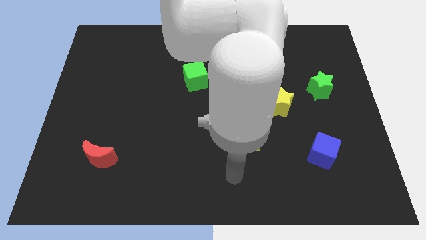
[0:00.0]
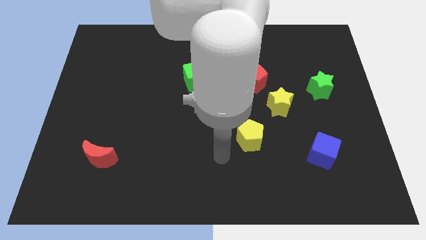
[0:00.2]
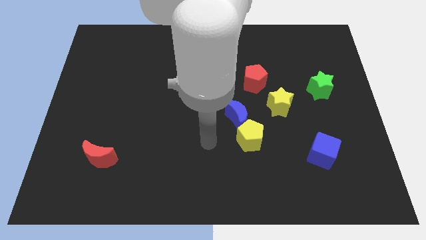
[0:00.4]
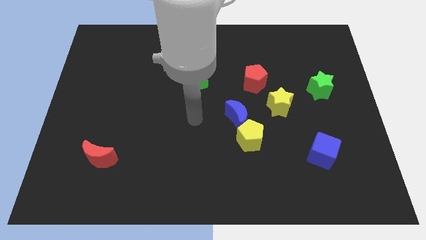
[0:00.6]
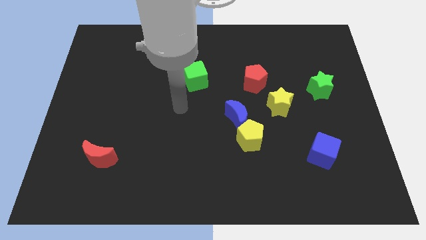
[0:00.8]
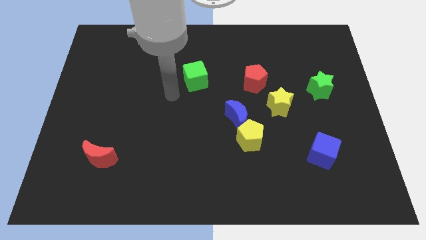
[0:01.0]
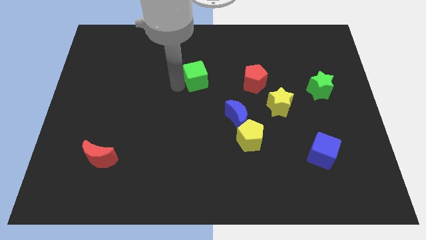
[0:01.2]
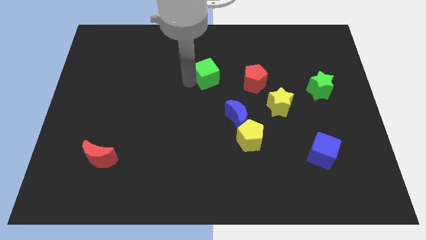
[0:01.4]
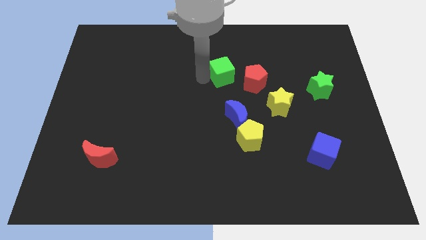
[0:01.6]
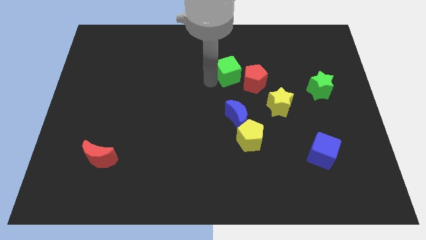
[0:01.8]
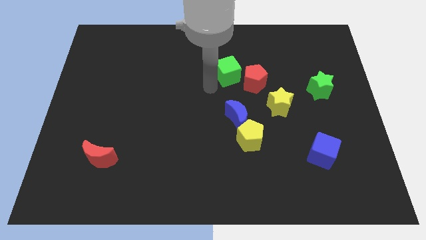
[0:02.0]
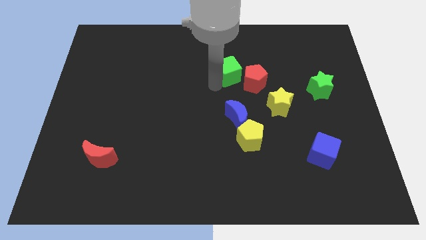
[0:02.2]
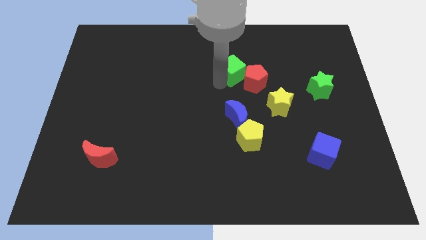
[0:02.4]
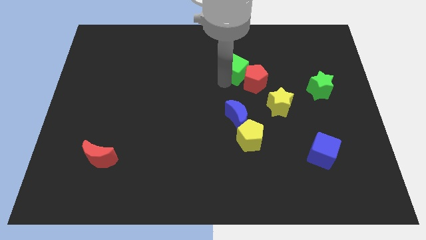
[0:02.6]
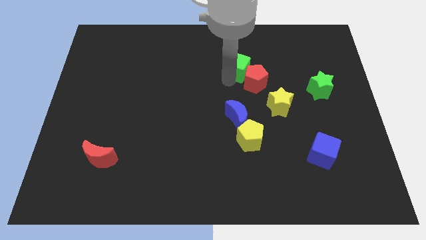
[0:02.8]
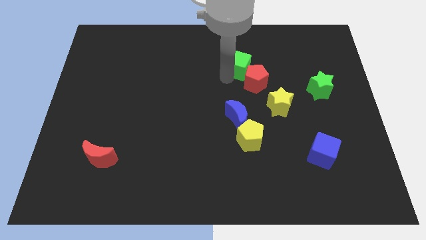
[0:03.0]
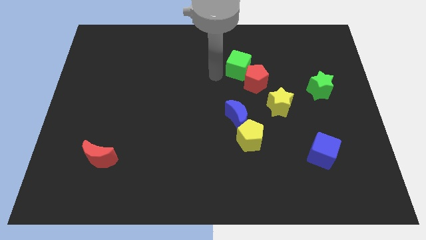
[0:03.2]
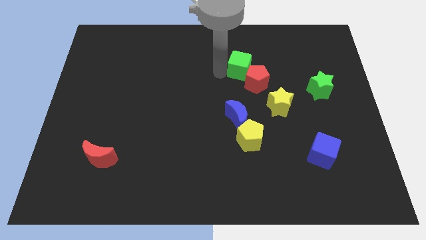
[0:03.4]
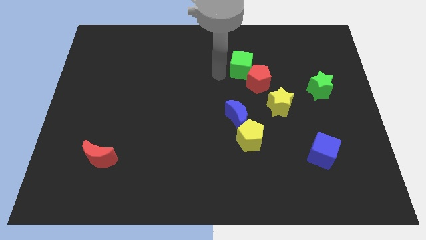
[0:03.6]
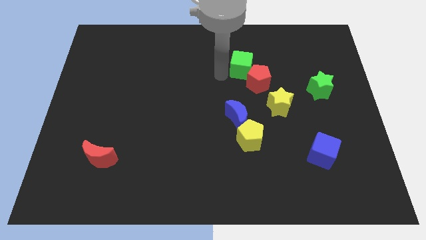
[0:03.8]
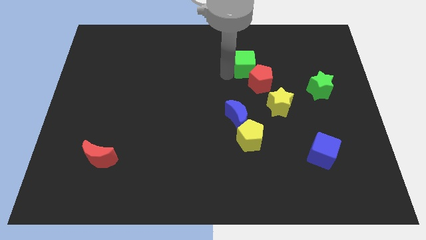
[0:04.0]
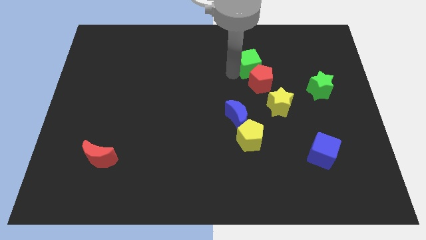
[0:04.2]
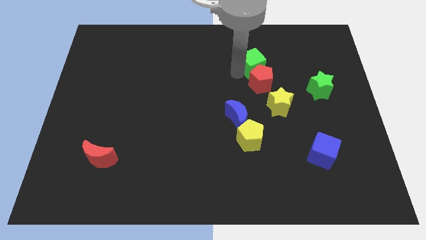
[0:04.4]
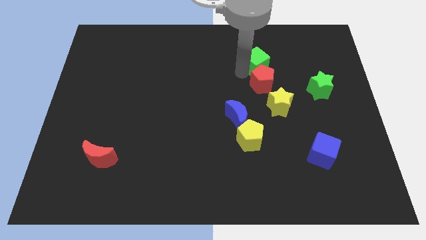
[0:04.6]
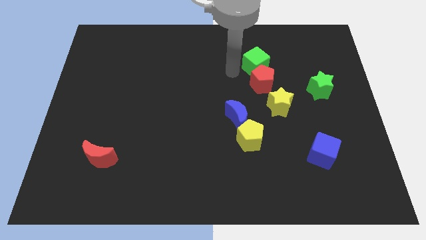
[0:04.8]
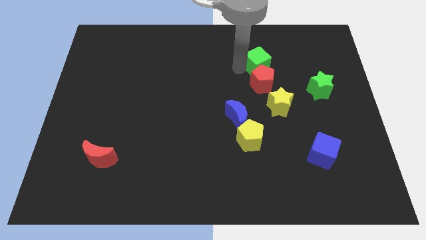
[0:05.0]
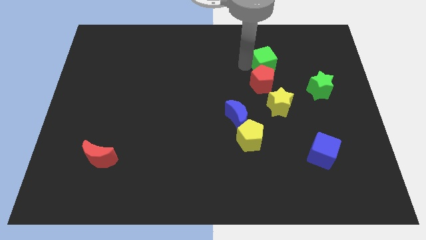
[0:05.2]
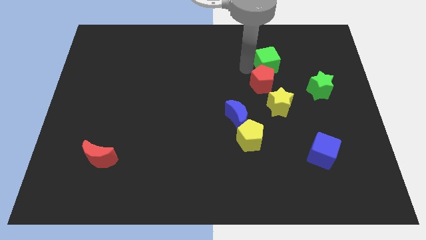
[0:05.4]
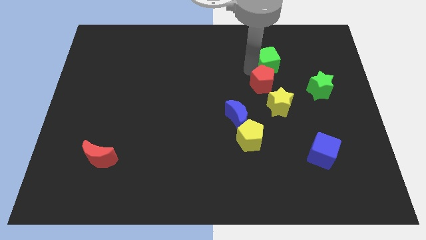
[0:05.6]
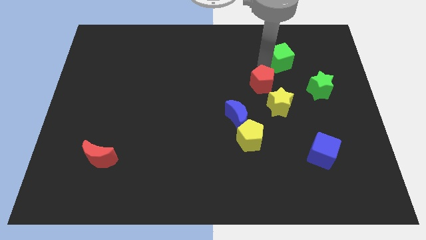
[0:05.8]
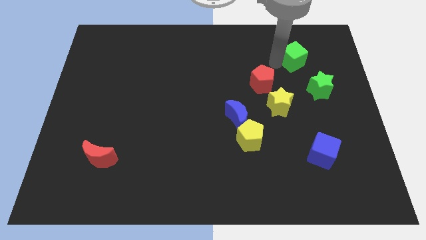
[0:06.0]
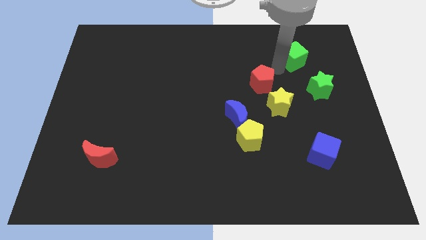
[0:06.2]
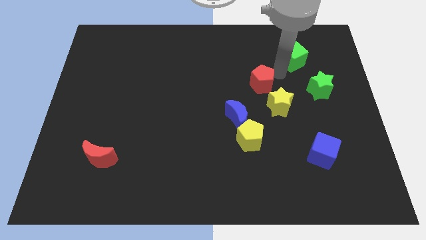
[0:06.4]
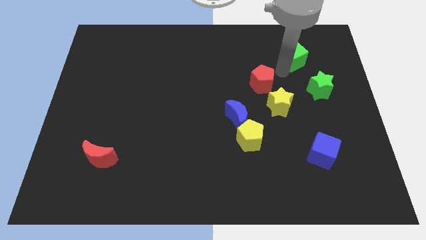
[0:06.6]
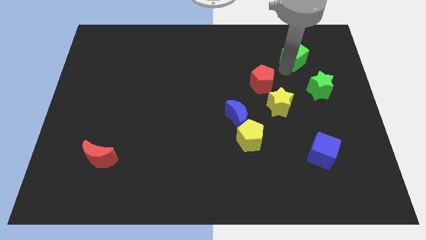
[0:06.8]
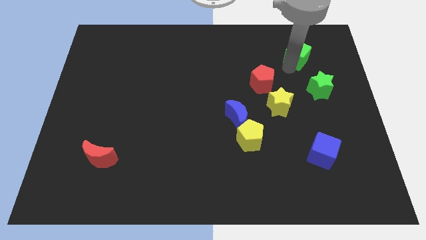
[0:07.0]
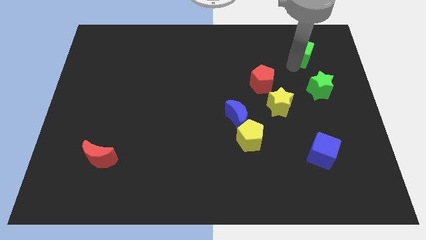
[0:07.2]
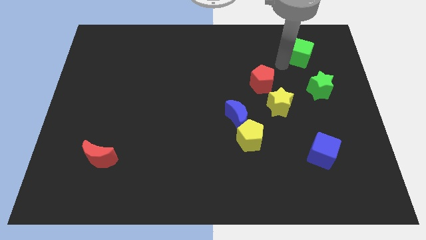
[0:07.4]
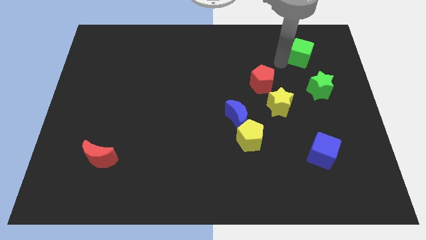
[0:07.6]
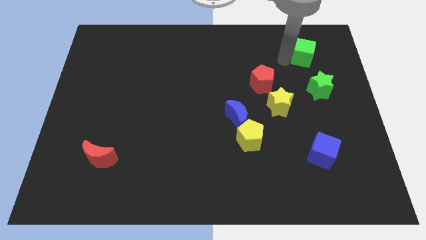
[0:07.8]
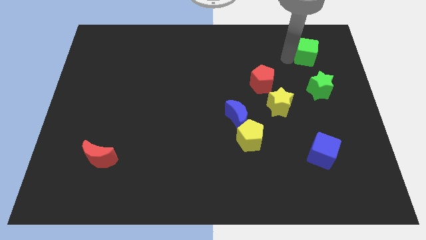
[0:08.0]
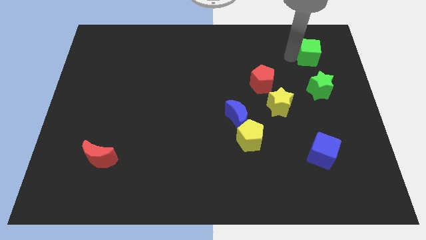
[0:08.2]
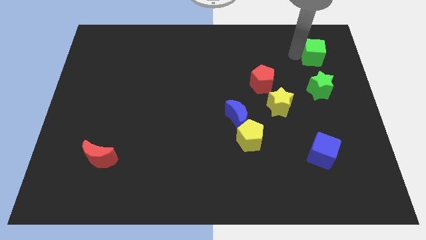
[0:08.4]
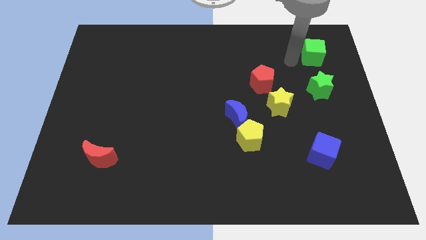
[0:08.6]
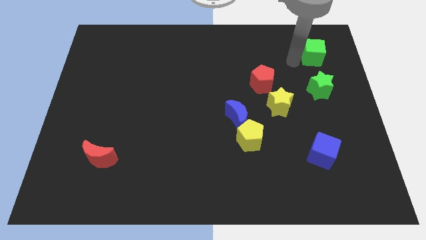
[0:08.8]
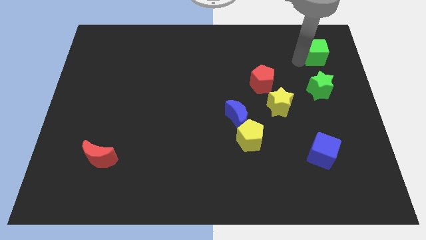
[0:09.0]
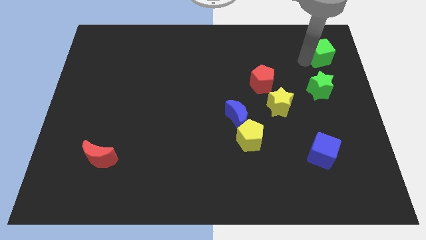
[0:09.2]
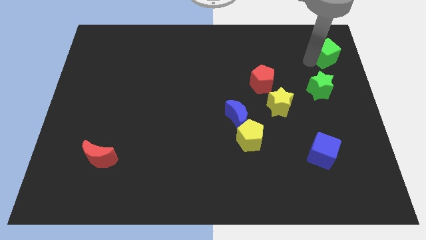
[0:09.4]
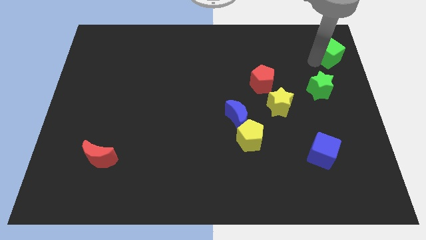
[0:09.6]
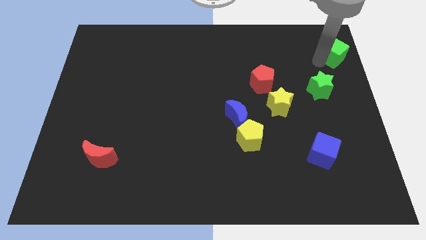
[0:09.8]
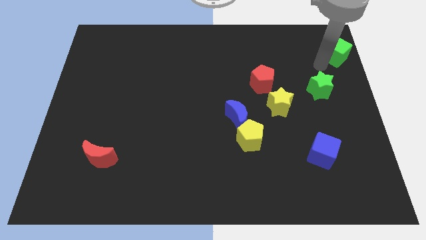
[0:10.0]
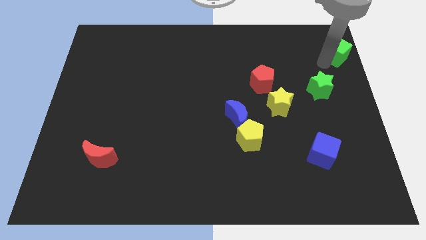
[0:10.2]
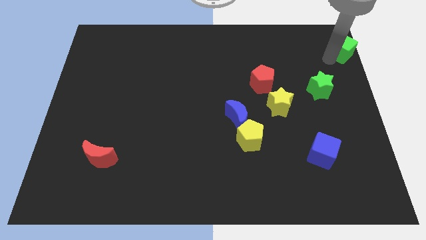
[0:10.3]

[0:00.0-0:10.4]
push the green cube to the top right of the board

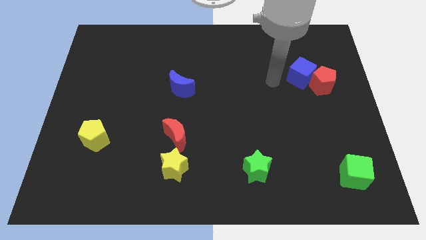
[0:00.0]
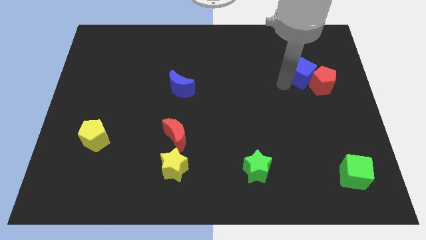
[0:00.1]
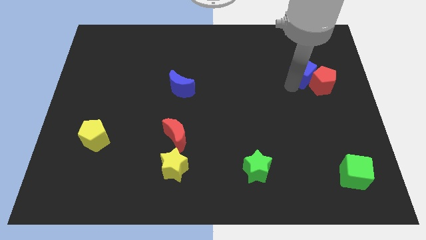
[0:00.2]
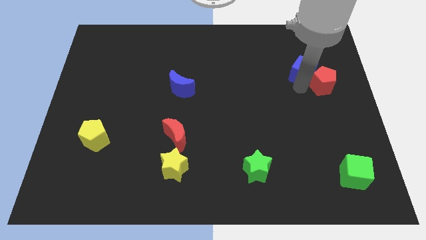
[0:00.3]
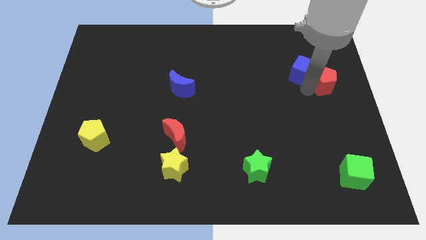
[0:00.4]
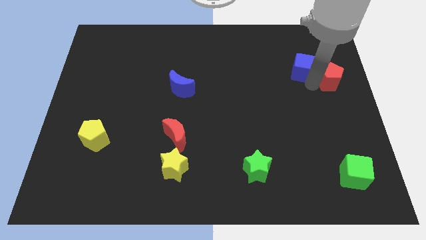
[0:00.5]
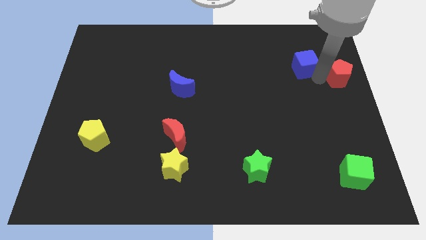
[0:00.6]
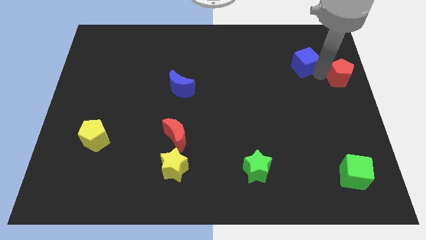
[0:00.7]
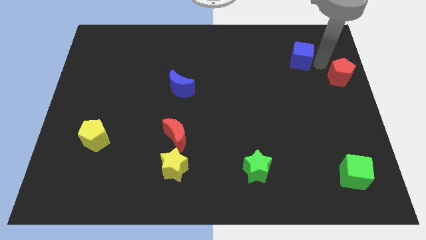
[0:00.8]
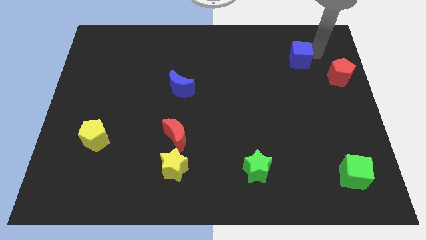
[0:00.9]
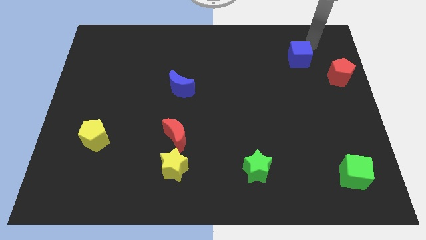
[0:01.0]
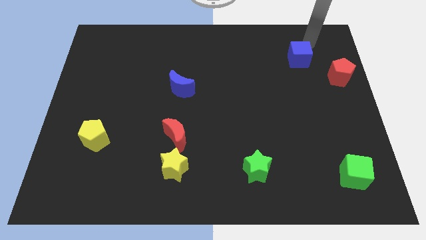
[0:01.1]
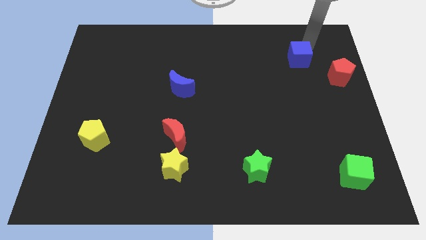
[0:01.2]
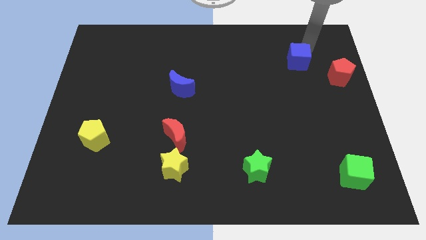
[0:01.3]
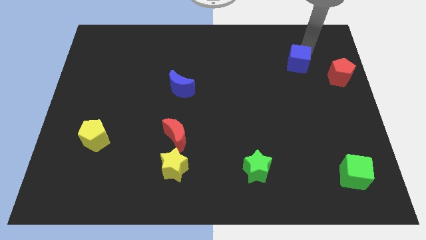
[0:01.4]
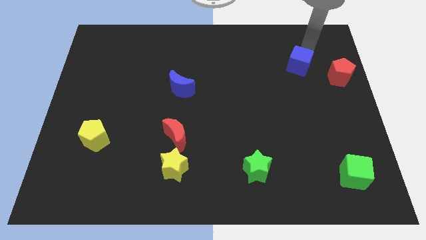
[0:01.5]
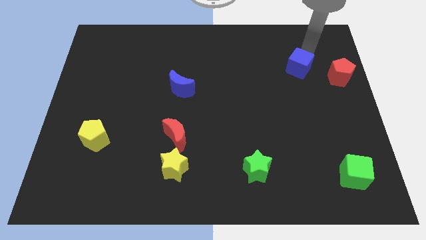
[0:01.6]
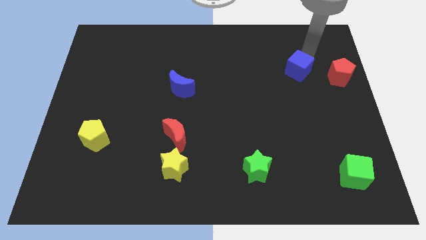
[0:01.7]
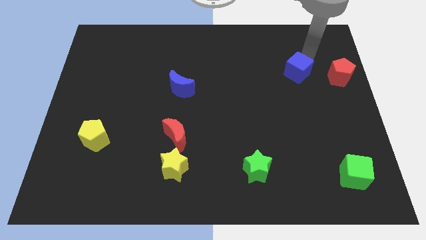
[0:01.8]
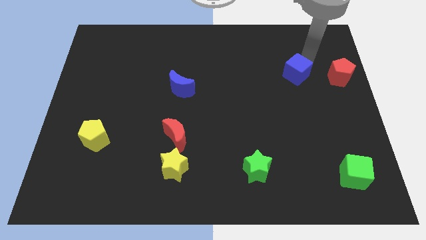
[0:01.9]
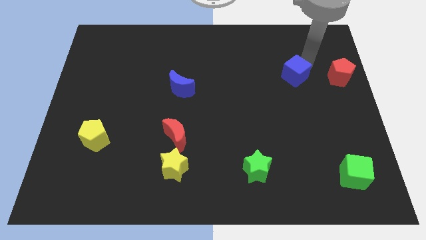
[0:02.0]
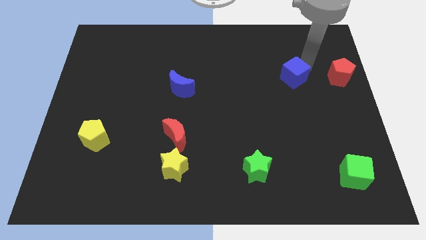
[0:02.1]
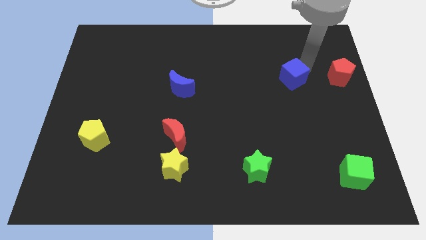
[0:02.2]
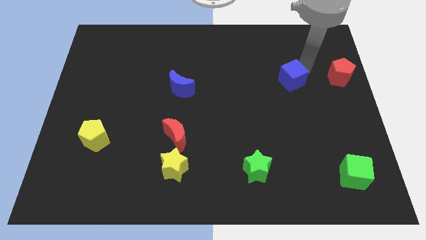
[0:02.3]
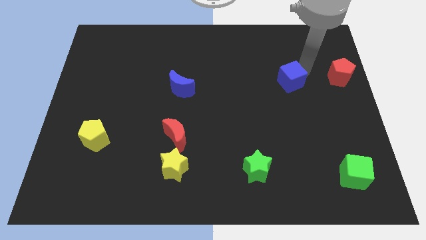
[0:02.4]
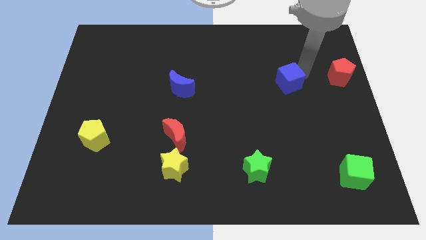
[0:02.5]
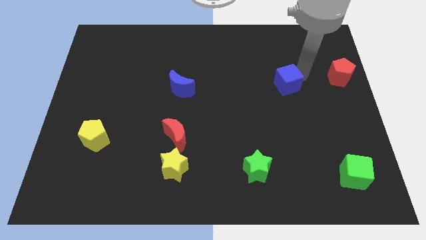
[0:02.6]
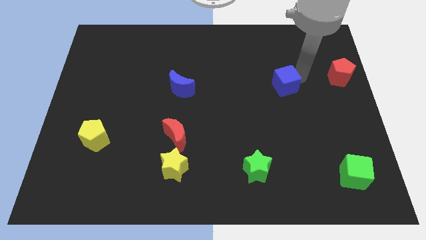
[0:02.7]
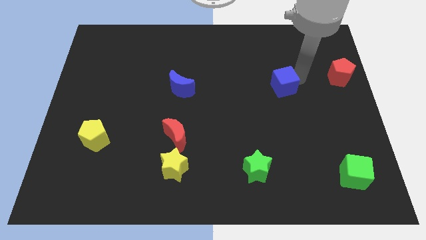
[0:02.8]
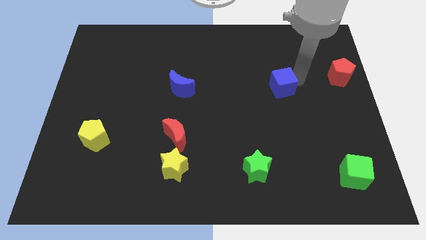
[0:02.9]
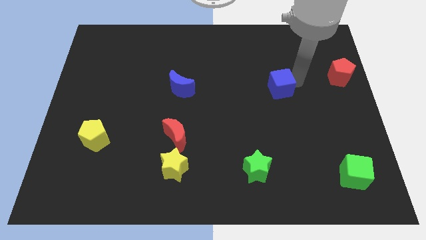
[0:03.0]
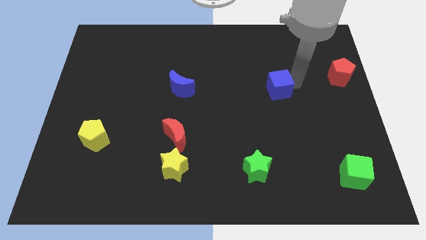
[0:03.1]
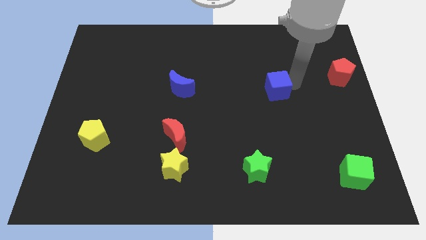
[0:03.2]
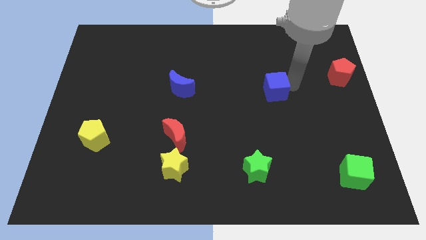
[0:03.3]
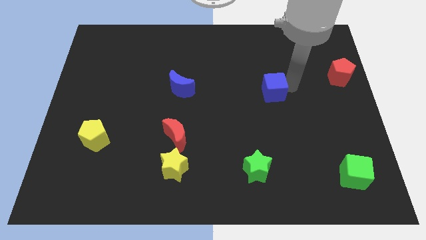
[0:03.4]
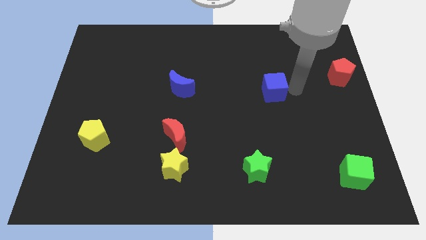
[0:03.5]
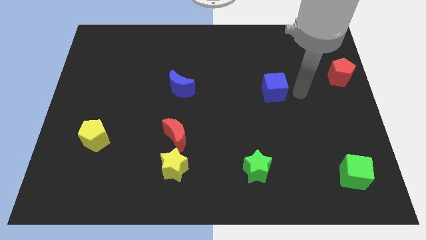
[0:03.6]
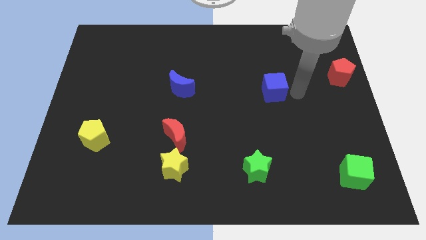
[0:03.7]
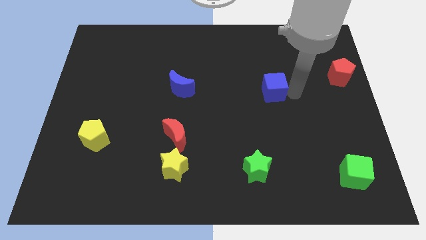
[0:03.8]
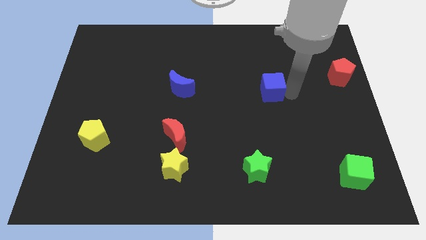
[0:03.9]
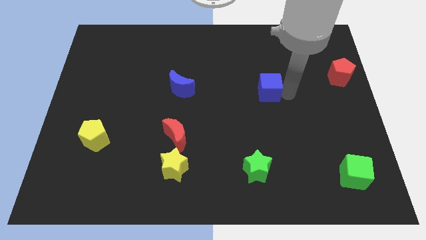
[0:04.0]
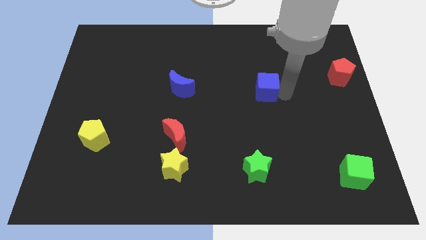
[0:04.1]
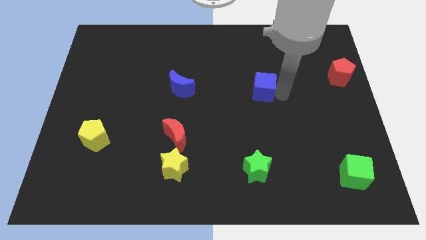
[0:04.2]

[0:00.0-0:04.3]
put the blue cube to the middle of the board
